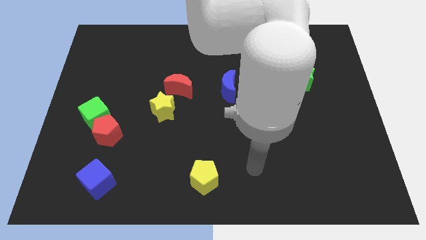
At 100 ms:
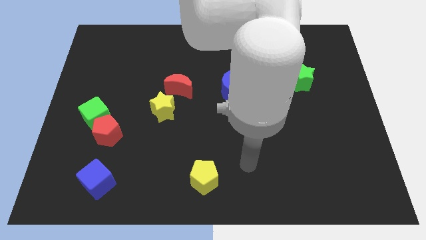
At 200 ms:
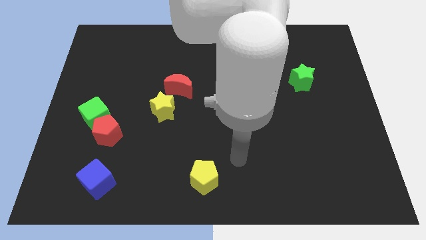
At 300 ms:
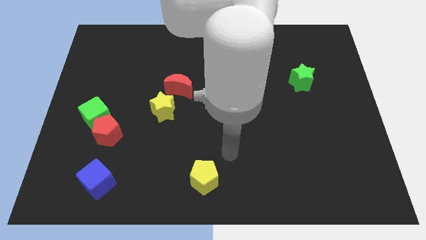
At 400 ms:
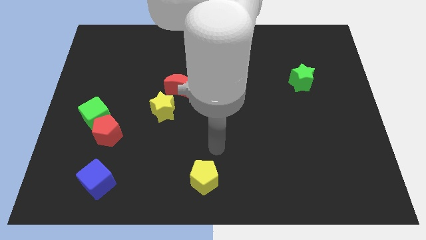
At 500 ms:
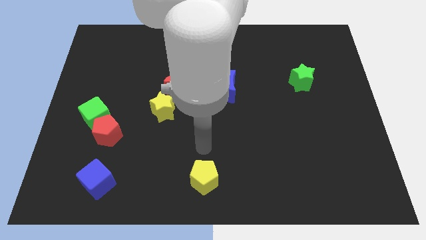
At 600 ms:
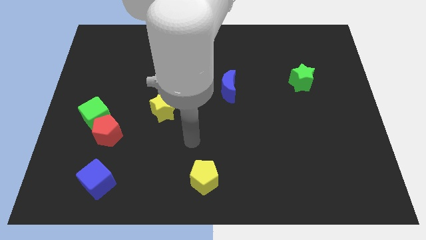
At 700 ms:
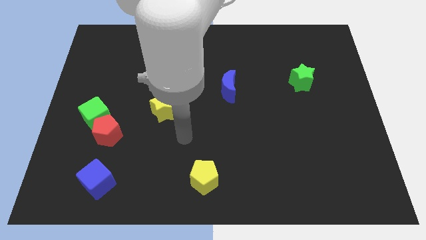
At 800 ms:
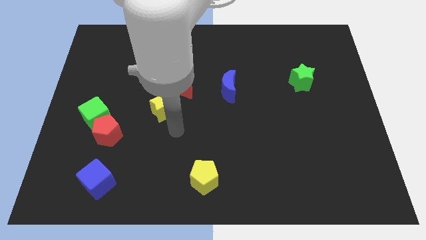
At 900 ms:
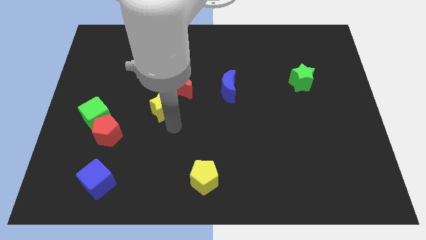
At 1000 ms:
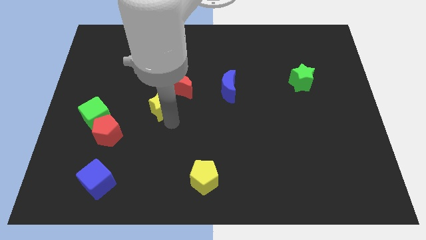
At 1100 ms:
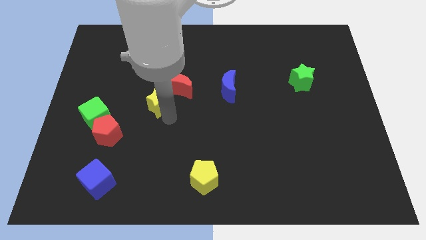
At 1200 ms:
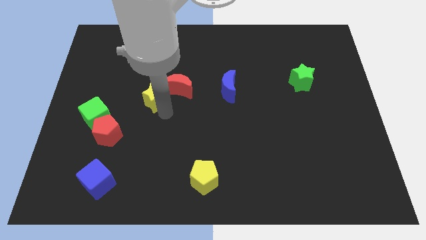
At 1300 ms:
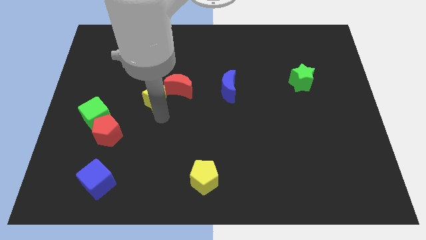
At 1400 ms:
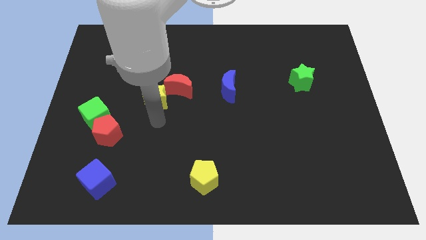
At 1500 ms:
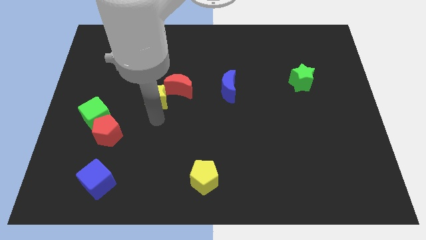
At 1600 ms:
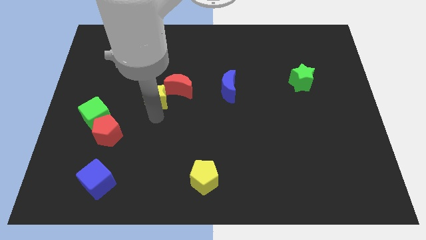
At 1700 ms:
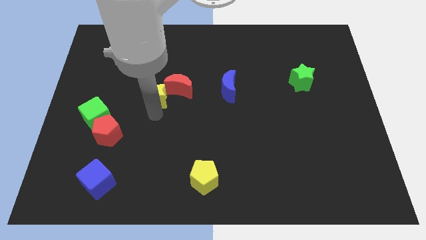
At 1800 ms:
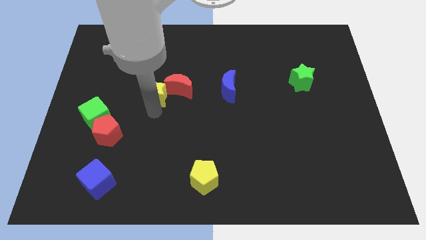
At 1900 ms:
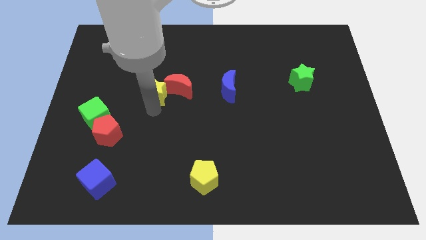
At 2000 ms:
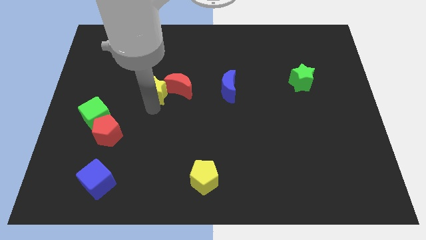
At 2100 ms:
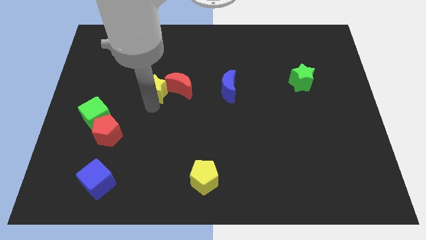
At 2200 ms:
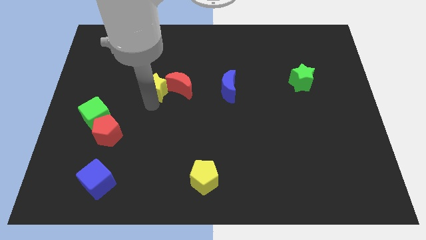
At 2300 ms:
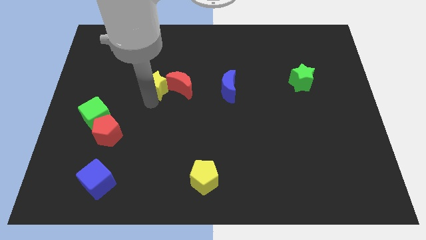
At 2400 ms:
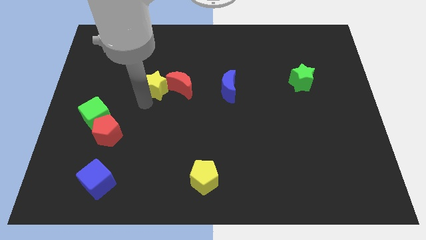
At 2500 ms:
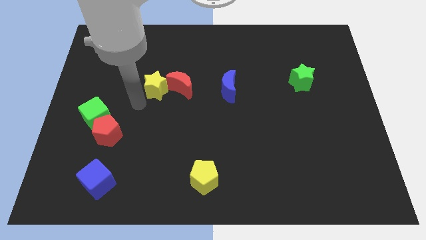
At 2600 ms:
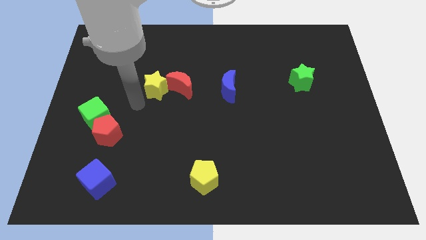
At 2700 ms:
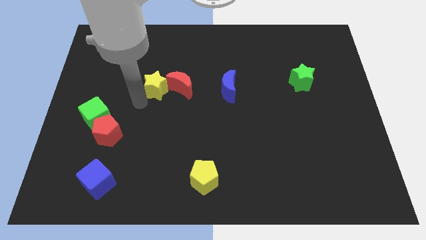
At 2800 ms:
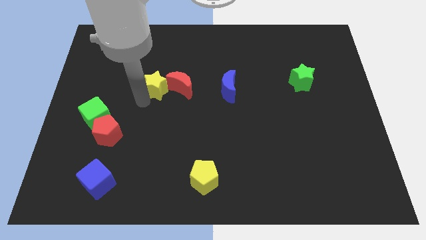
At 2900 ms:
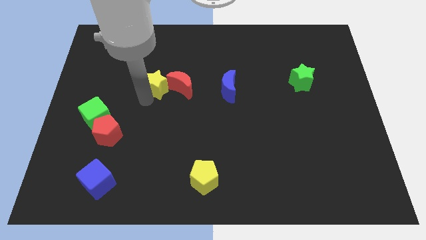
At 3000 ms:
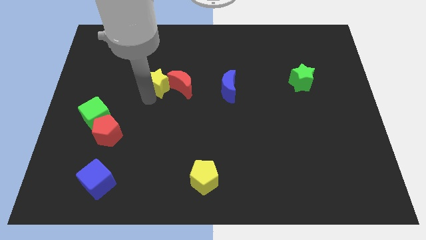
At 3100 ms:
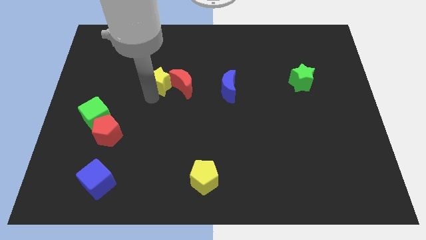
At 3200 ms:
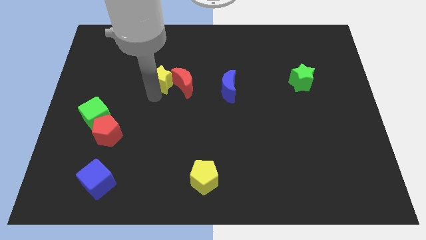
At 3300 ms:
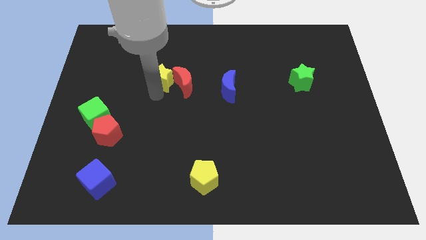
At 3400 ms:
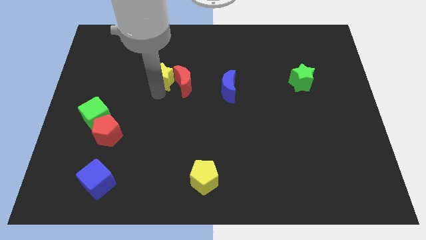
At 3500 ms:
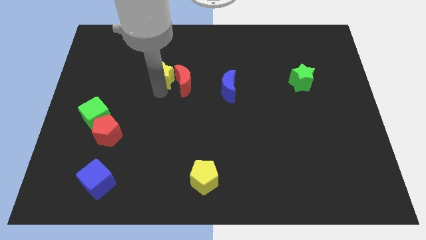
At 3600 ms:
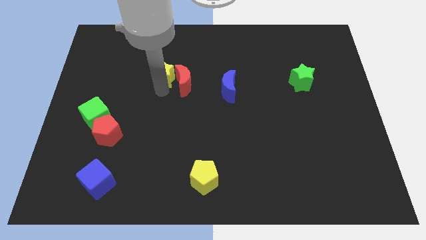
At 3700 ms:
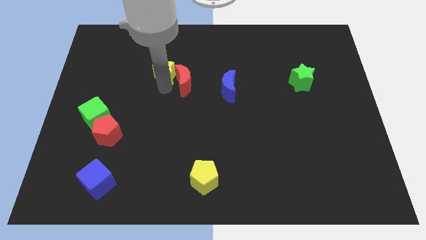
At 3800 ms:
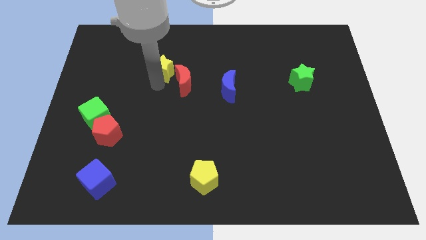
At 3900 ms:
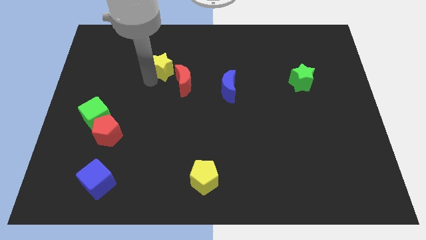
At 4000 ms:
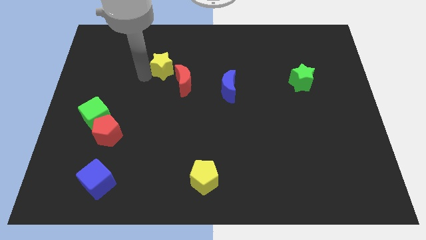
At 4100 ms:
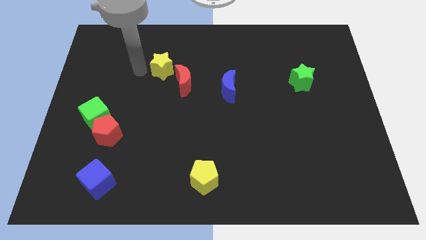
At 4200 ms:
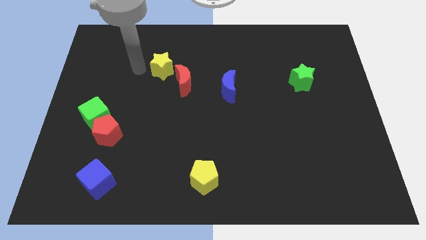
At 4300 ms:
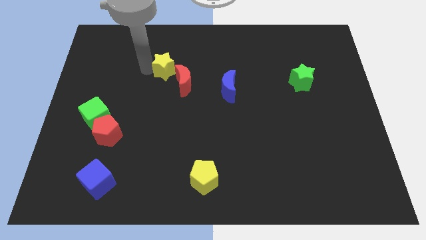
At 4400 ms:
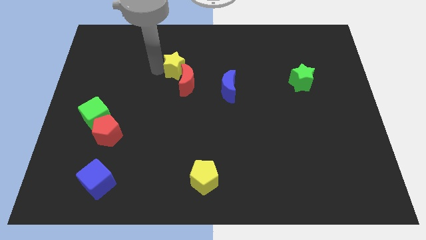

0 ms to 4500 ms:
move the yellow star somewhat upwards and right diagonally

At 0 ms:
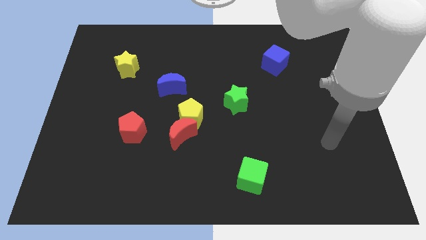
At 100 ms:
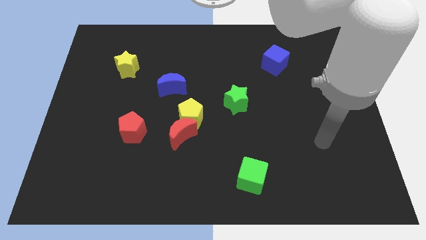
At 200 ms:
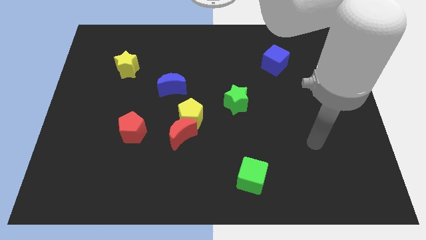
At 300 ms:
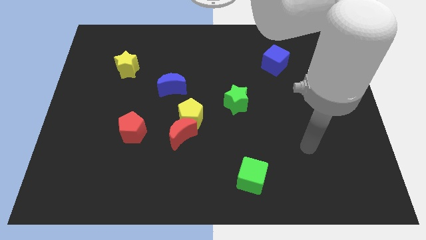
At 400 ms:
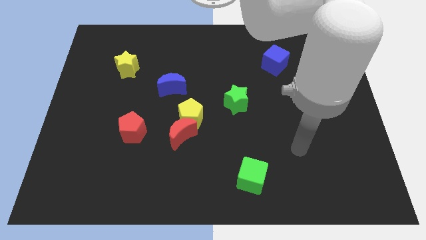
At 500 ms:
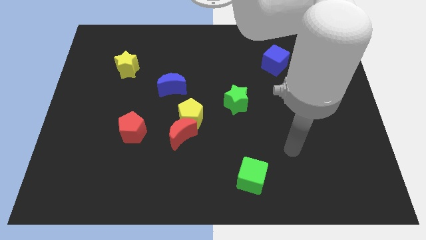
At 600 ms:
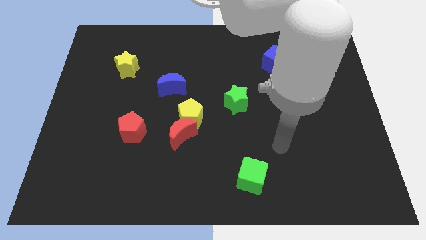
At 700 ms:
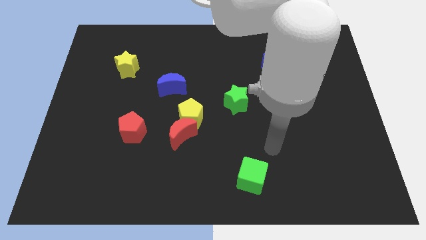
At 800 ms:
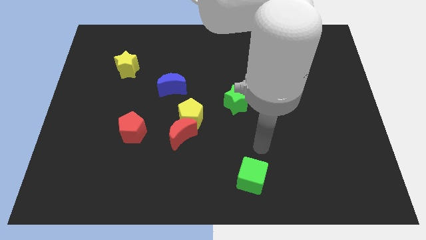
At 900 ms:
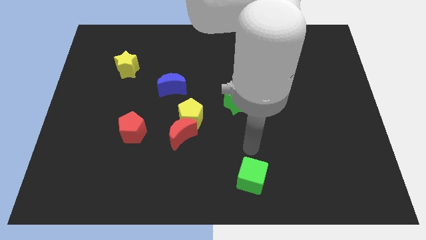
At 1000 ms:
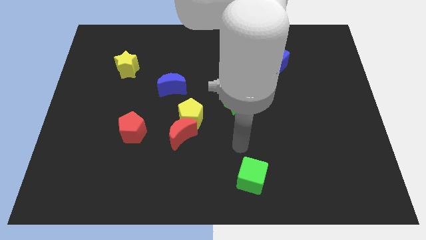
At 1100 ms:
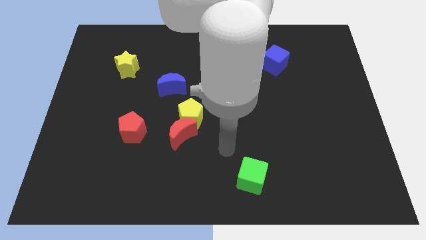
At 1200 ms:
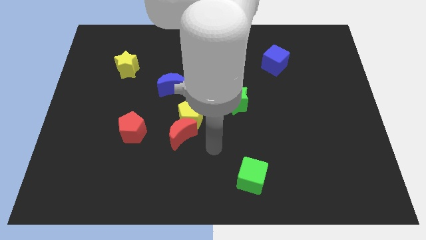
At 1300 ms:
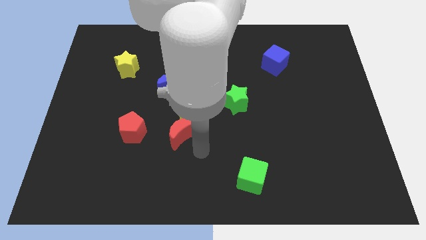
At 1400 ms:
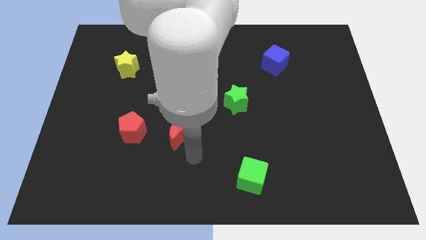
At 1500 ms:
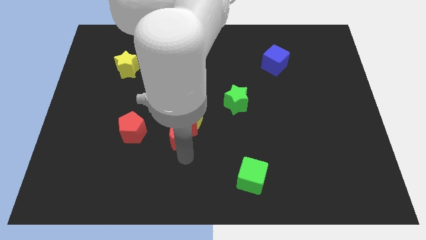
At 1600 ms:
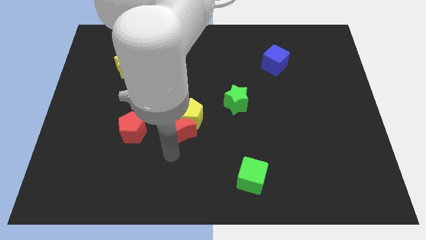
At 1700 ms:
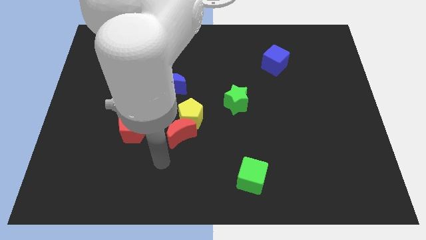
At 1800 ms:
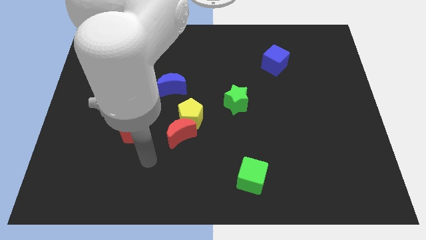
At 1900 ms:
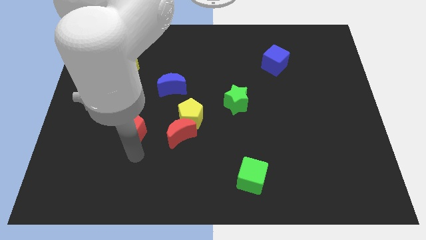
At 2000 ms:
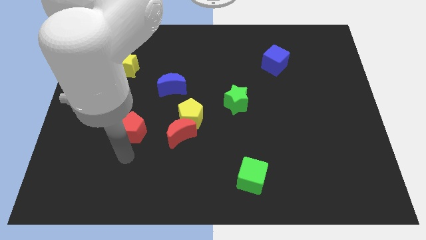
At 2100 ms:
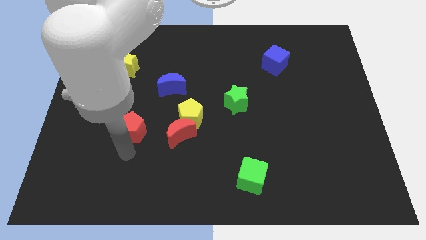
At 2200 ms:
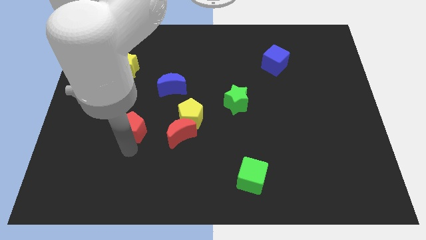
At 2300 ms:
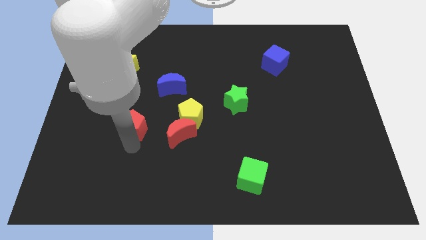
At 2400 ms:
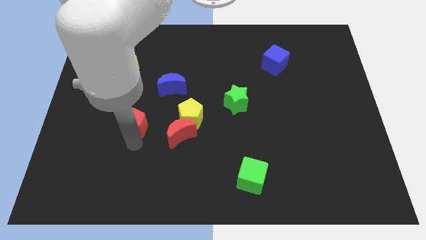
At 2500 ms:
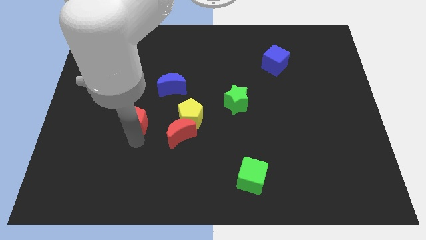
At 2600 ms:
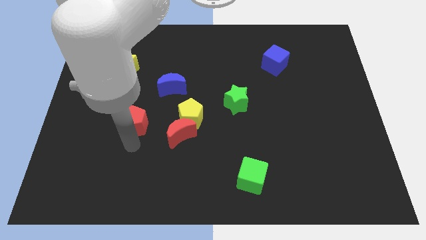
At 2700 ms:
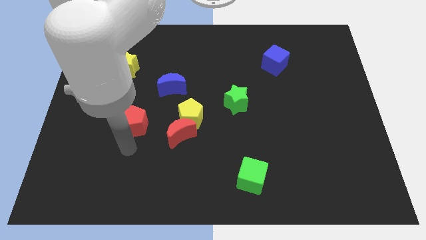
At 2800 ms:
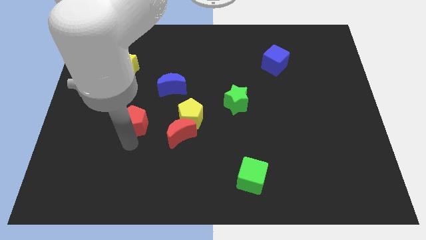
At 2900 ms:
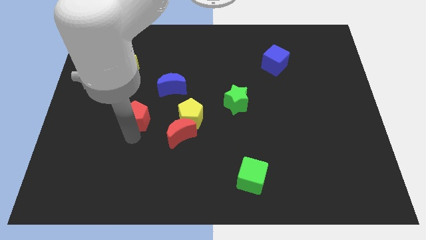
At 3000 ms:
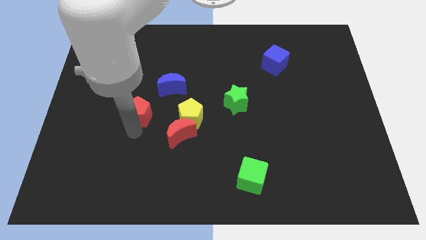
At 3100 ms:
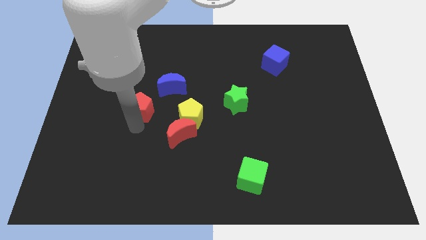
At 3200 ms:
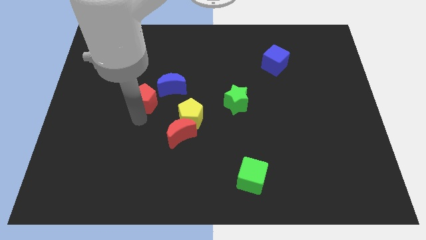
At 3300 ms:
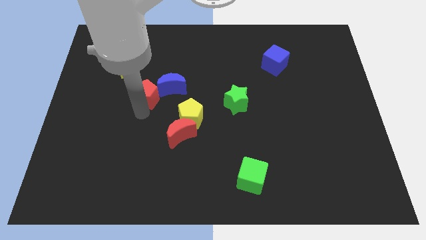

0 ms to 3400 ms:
slide the red pentagon upwards and then right somewhat

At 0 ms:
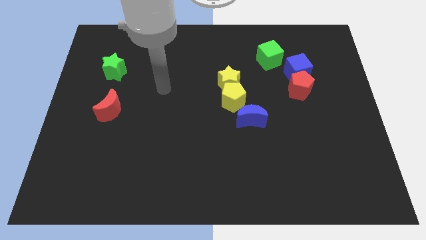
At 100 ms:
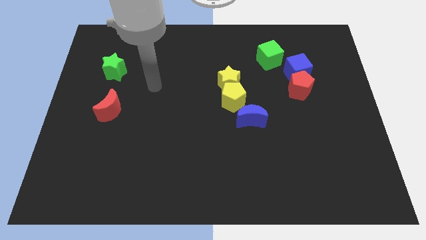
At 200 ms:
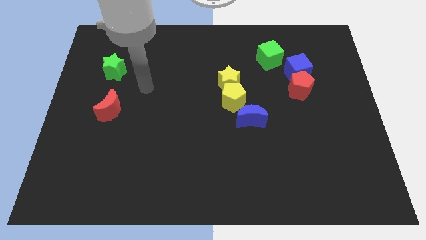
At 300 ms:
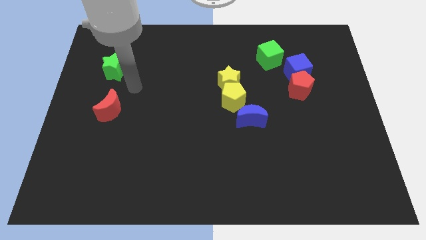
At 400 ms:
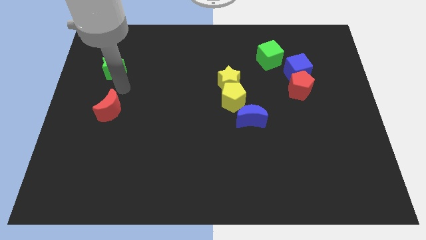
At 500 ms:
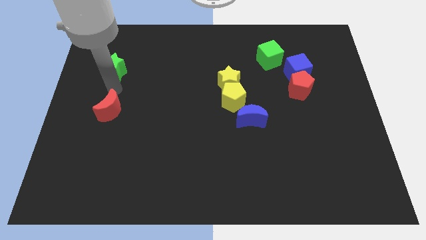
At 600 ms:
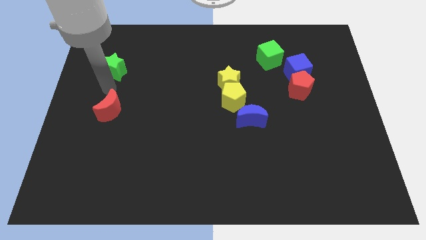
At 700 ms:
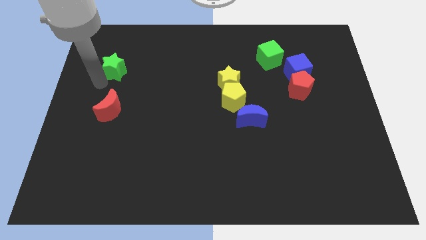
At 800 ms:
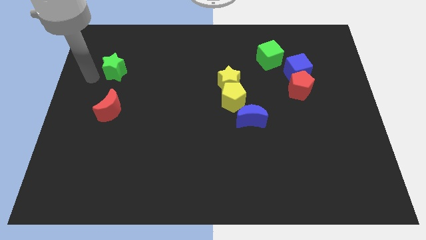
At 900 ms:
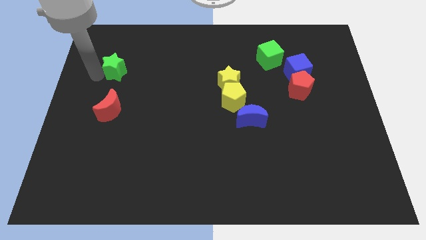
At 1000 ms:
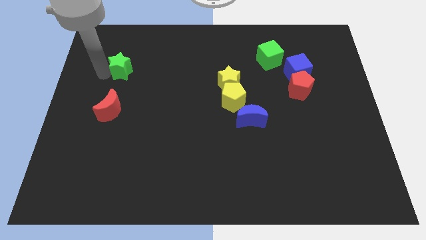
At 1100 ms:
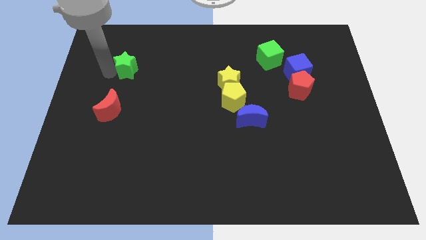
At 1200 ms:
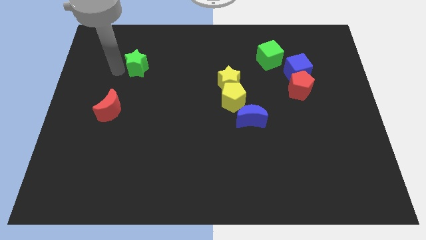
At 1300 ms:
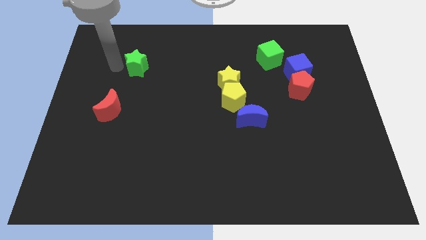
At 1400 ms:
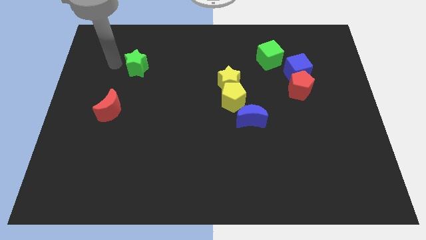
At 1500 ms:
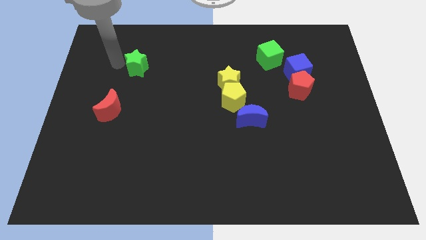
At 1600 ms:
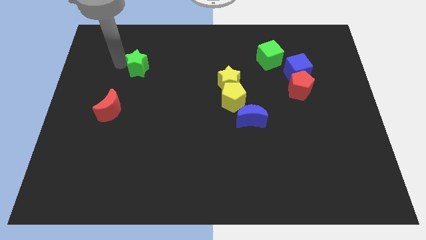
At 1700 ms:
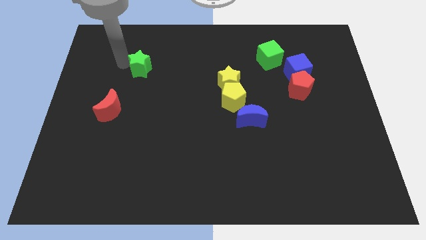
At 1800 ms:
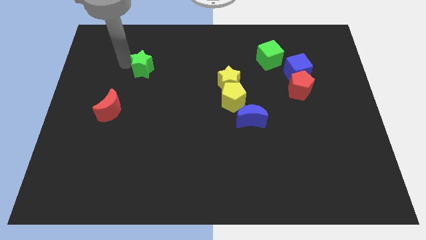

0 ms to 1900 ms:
slightly move the green star to the right
